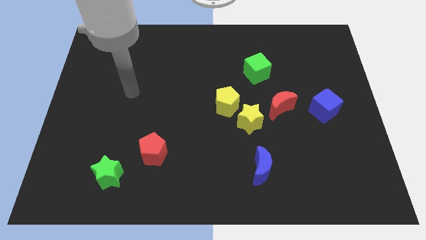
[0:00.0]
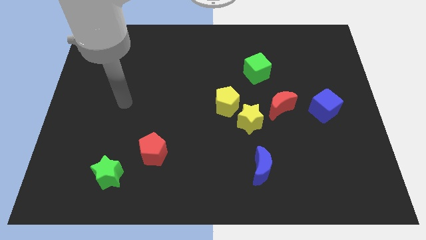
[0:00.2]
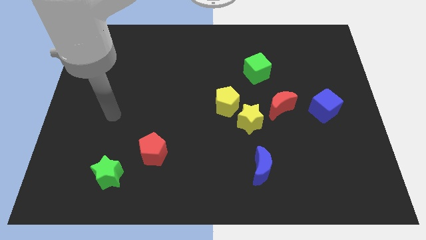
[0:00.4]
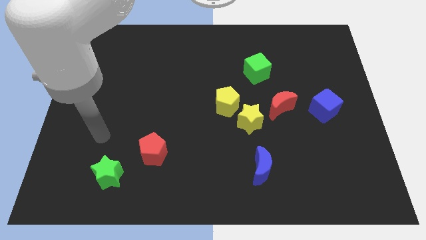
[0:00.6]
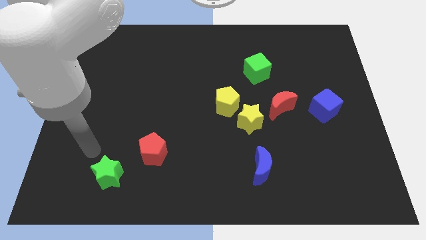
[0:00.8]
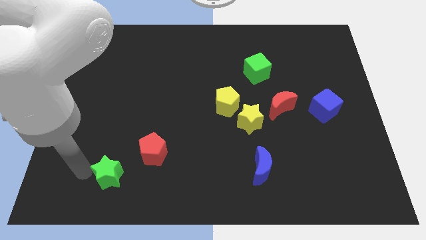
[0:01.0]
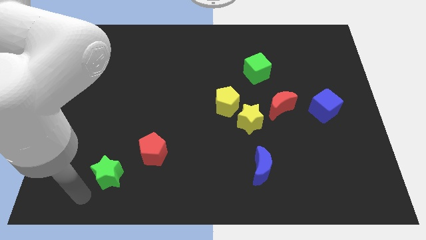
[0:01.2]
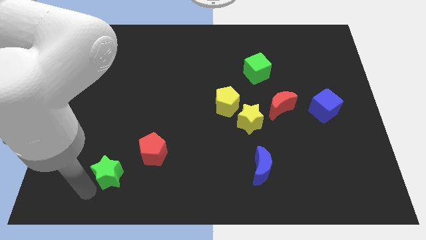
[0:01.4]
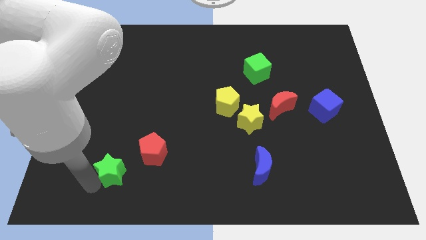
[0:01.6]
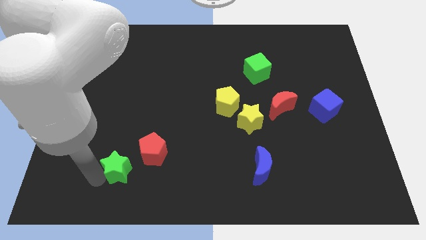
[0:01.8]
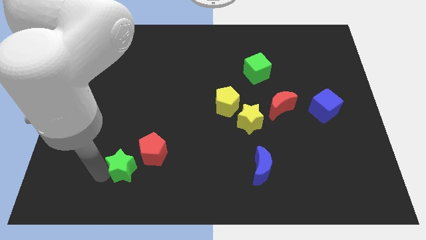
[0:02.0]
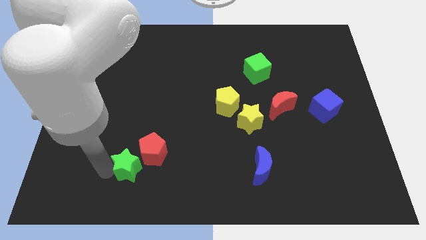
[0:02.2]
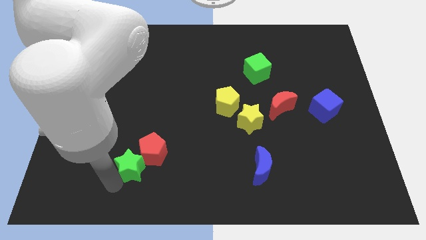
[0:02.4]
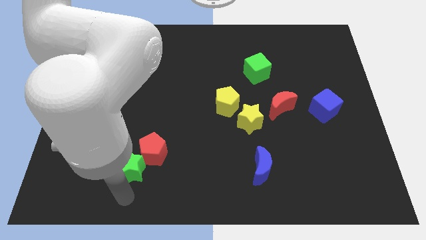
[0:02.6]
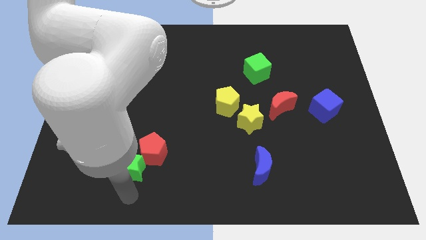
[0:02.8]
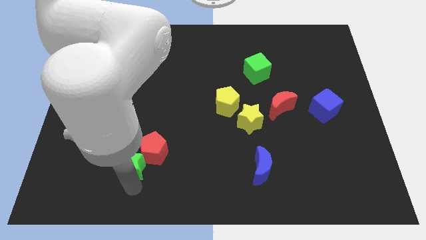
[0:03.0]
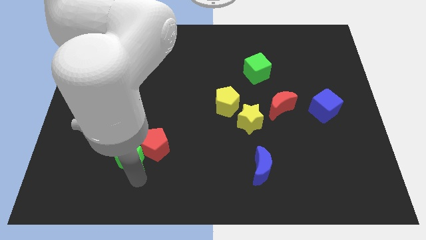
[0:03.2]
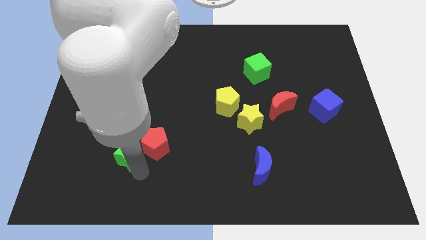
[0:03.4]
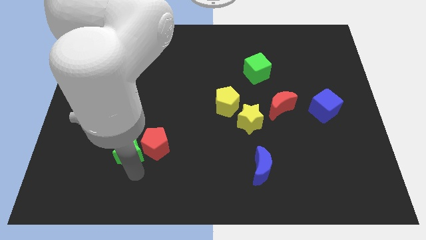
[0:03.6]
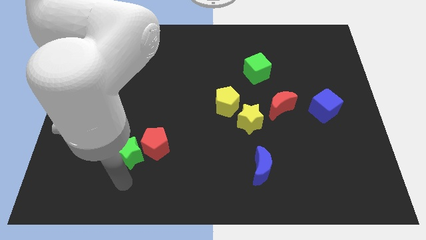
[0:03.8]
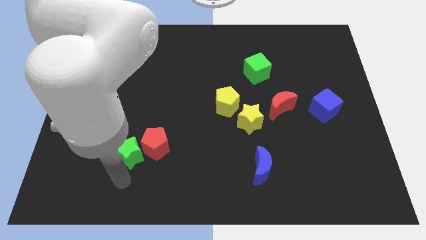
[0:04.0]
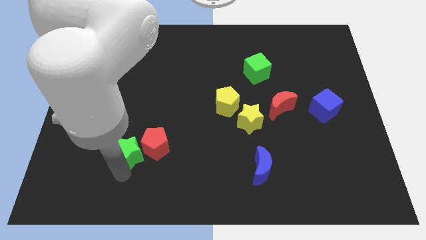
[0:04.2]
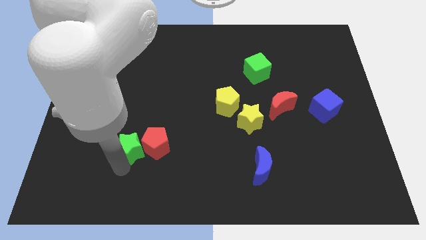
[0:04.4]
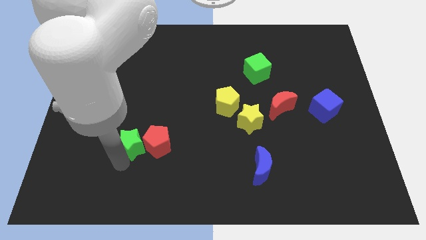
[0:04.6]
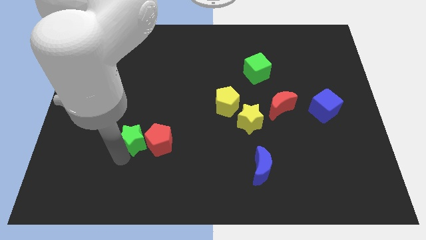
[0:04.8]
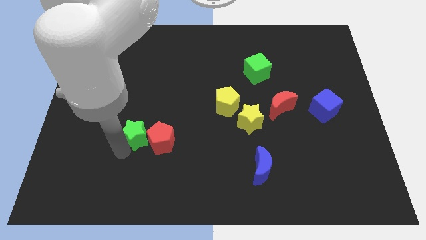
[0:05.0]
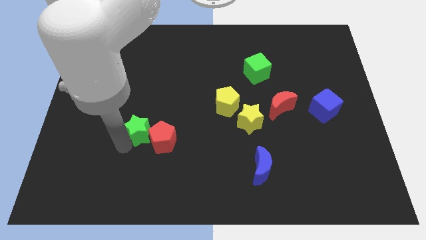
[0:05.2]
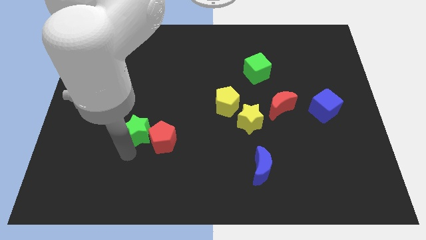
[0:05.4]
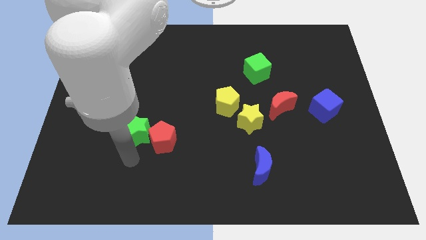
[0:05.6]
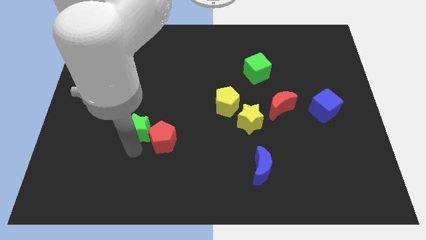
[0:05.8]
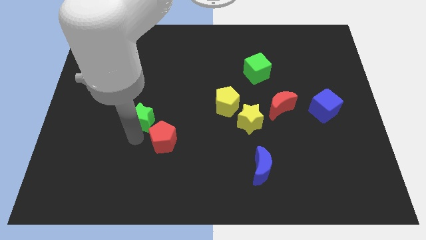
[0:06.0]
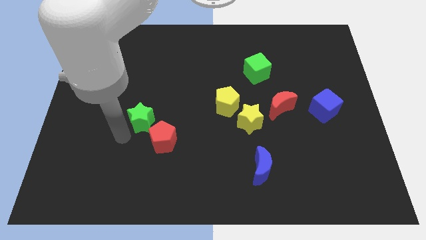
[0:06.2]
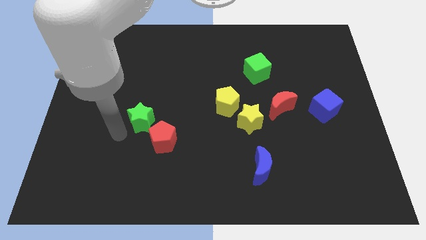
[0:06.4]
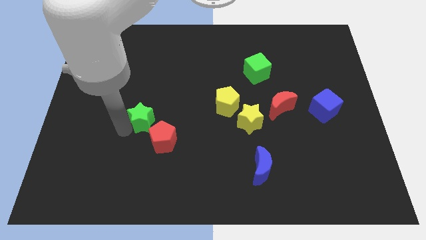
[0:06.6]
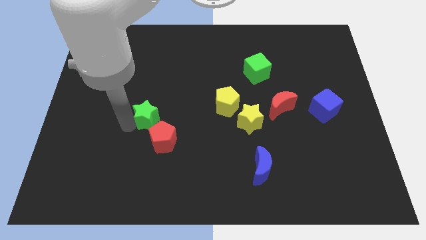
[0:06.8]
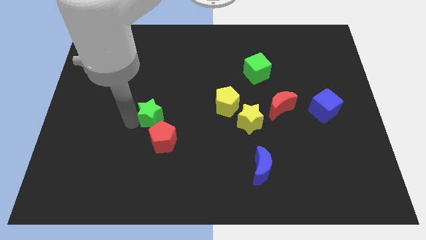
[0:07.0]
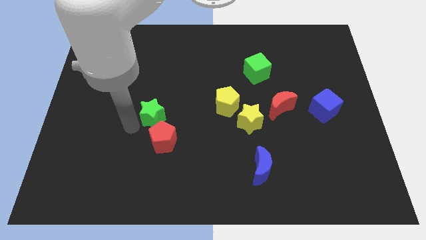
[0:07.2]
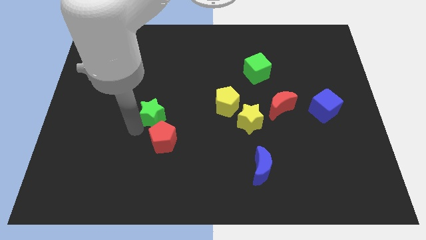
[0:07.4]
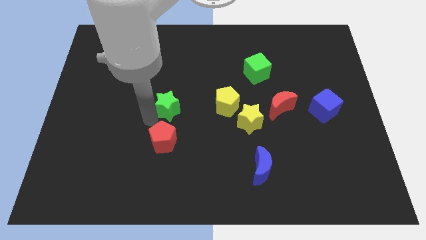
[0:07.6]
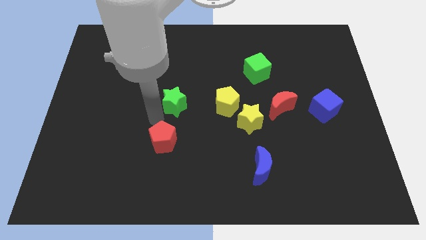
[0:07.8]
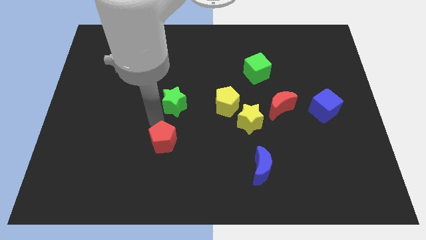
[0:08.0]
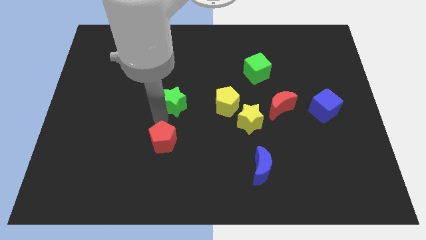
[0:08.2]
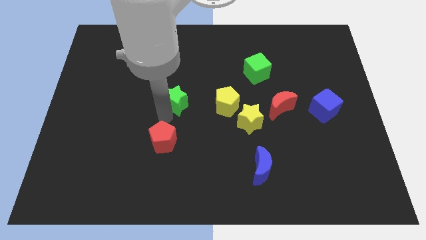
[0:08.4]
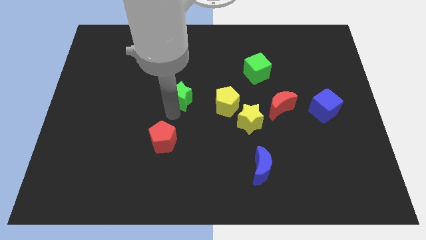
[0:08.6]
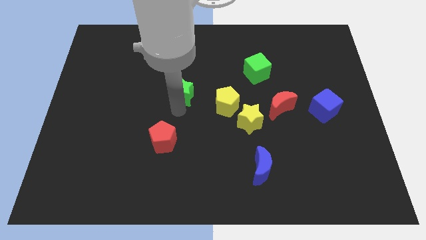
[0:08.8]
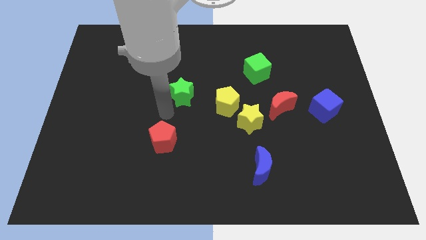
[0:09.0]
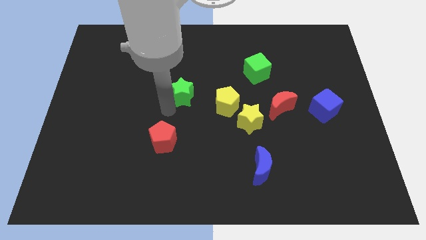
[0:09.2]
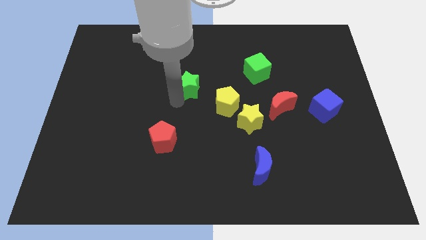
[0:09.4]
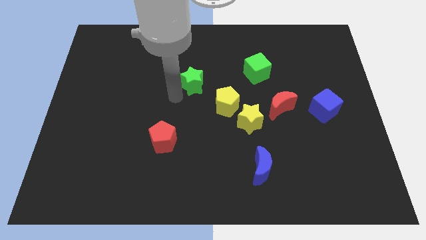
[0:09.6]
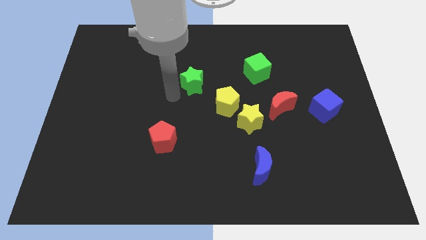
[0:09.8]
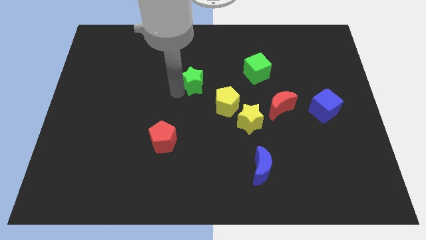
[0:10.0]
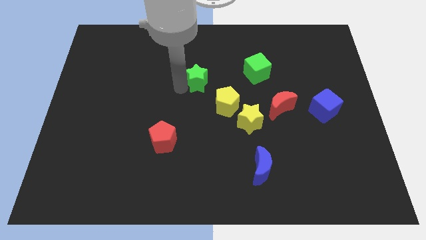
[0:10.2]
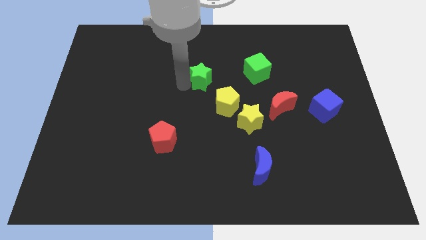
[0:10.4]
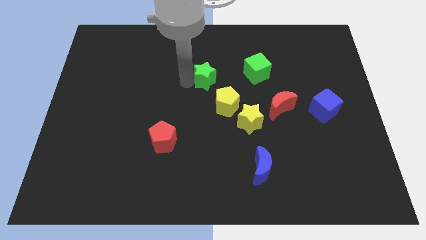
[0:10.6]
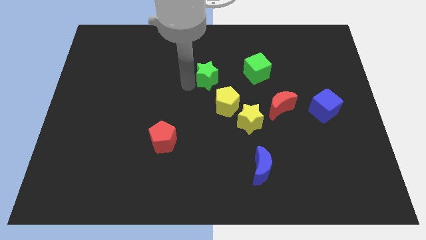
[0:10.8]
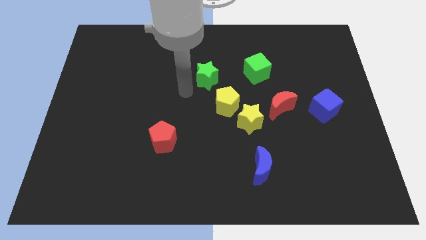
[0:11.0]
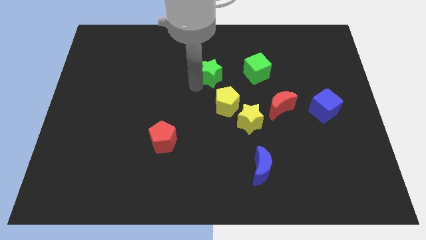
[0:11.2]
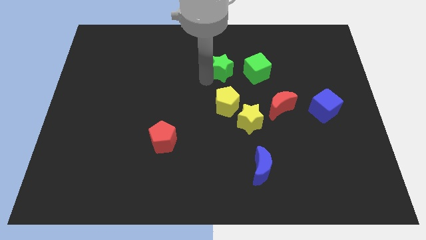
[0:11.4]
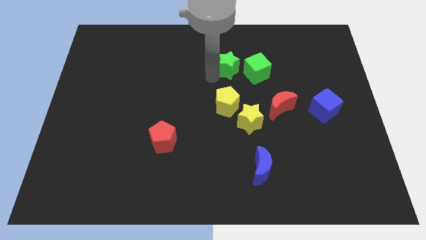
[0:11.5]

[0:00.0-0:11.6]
move the green star to the top left side of the green cube

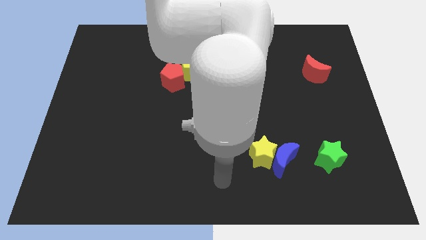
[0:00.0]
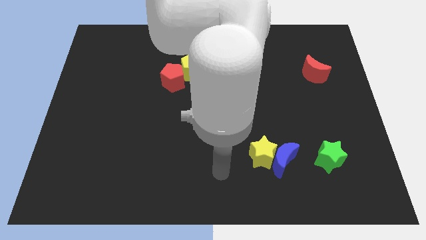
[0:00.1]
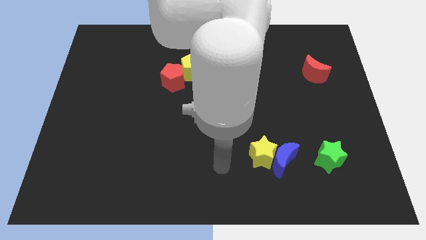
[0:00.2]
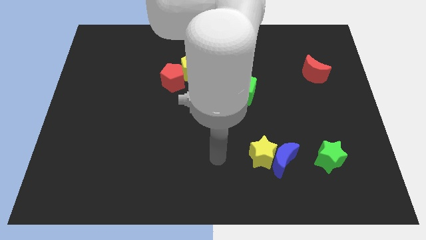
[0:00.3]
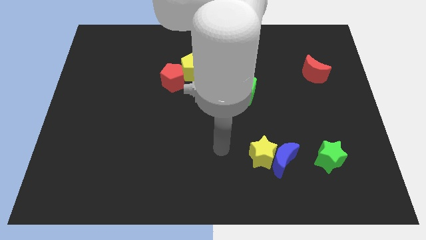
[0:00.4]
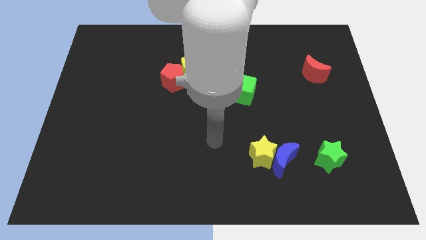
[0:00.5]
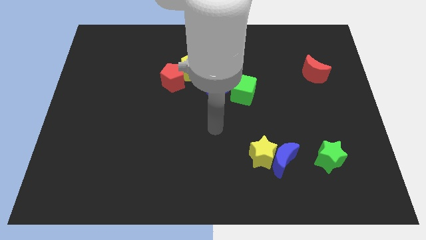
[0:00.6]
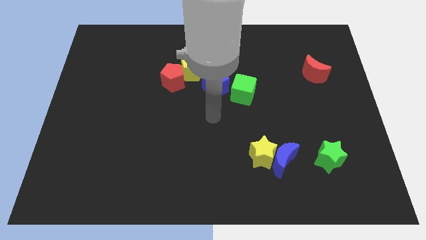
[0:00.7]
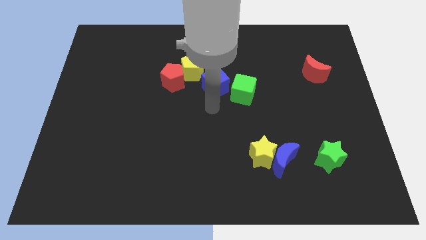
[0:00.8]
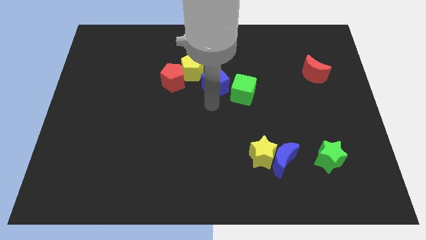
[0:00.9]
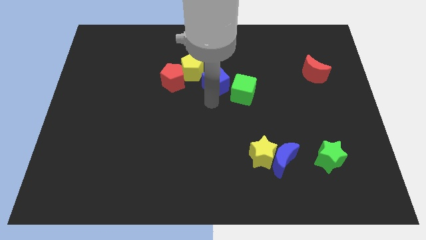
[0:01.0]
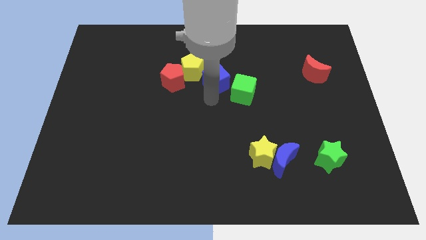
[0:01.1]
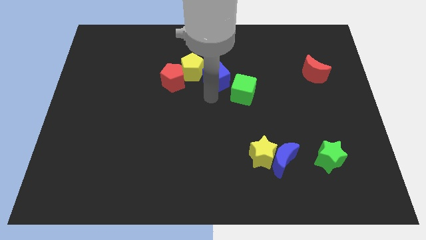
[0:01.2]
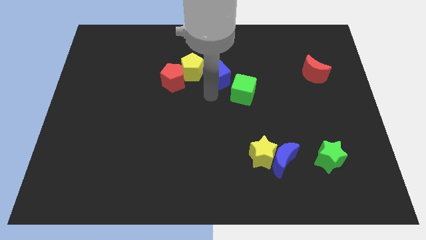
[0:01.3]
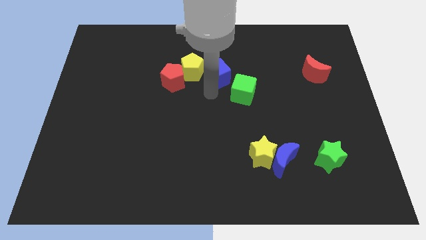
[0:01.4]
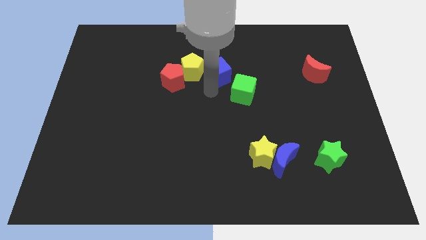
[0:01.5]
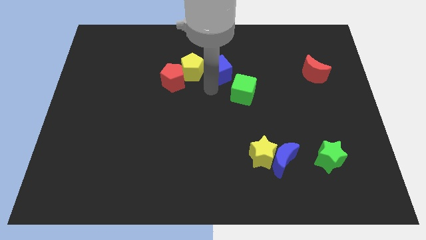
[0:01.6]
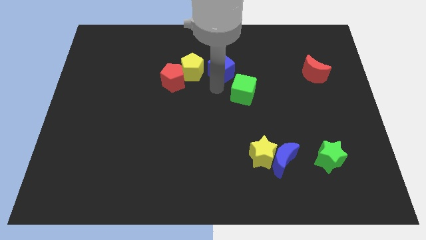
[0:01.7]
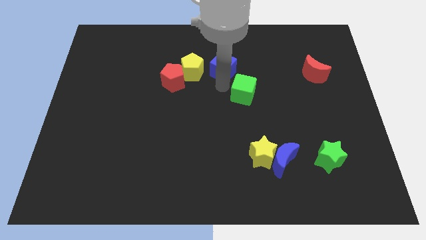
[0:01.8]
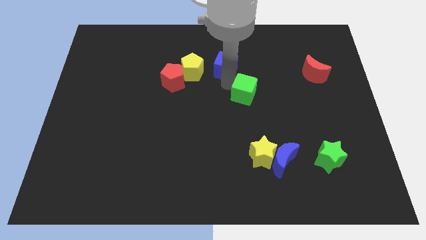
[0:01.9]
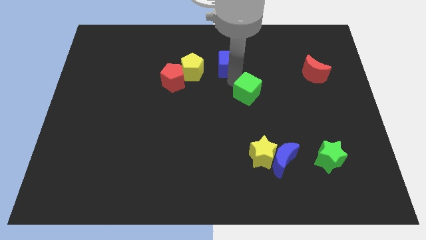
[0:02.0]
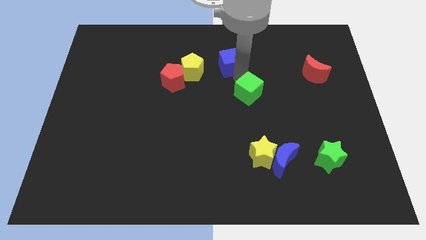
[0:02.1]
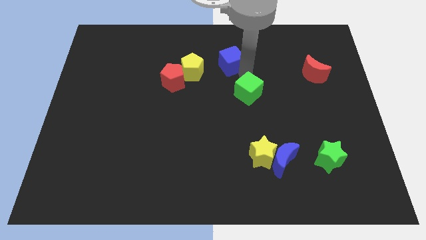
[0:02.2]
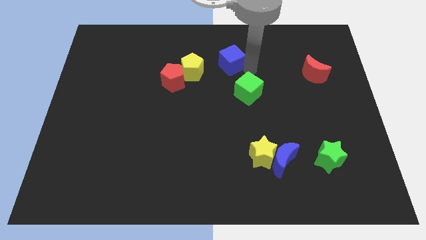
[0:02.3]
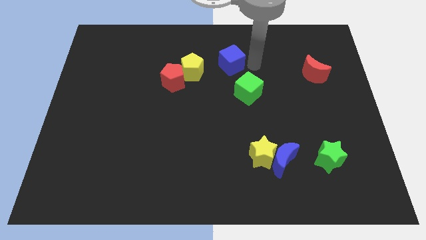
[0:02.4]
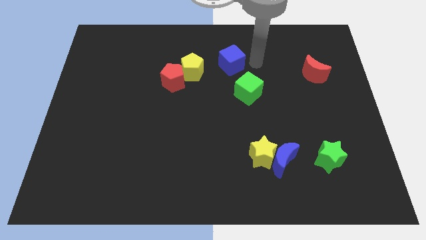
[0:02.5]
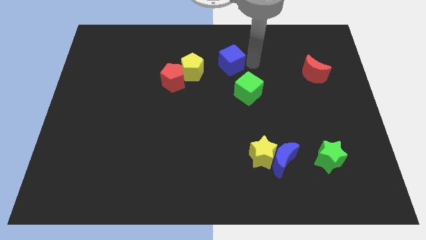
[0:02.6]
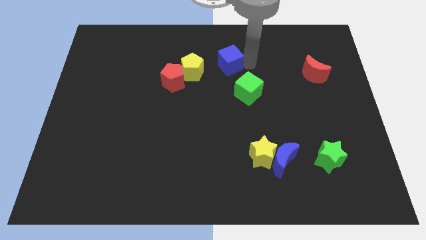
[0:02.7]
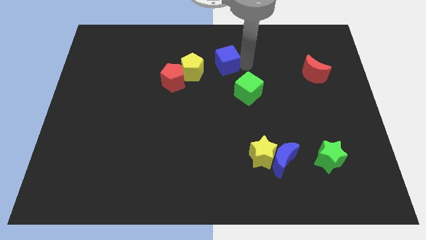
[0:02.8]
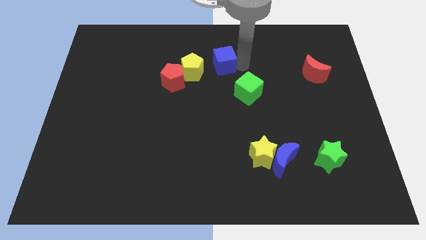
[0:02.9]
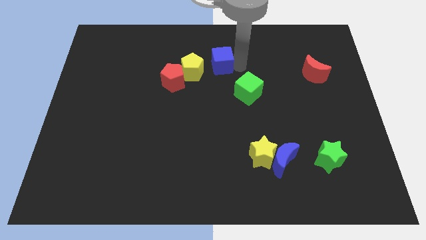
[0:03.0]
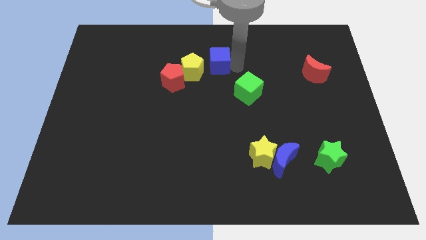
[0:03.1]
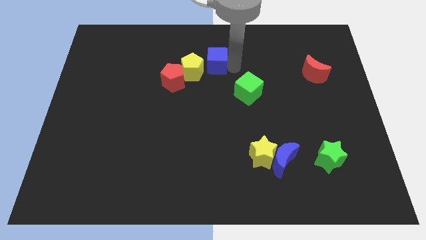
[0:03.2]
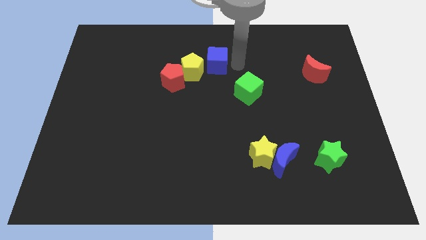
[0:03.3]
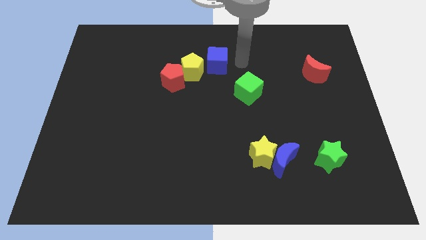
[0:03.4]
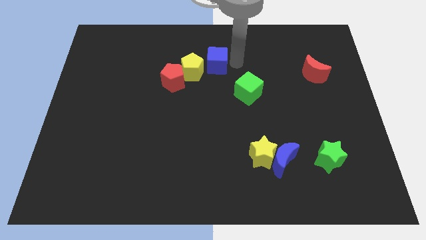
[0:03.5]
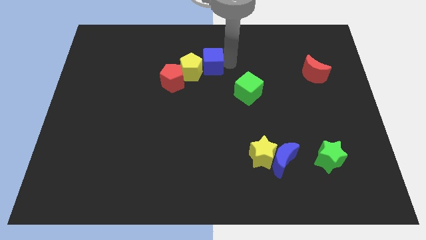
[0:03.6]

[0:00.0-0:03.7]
move the blue cube to the top right side of the red pentagon
